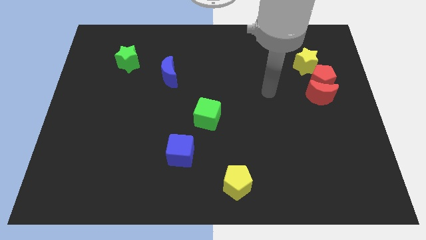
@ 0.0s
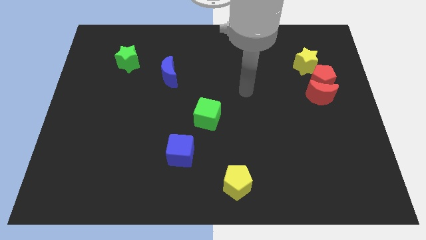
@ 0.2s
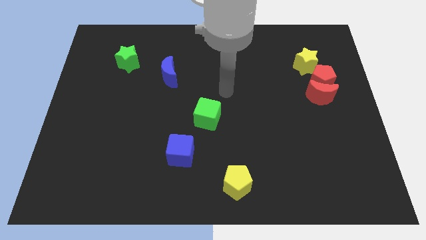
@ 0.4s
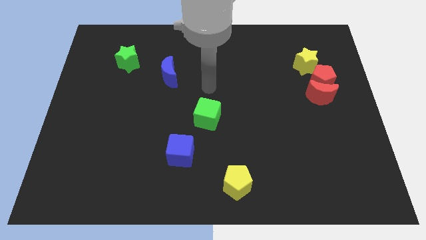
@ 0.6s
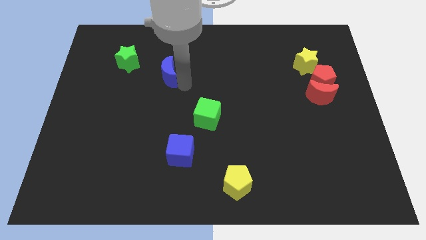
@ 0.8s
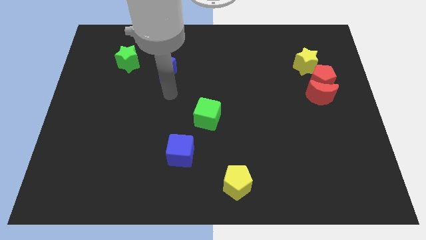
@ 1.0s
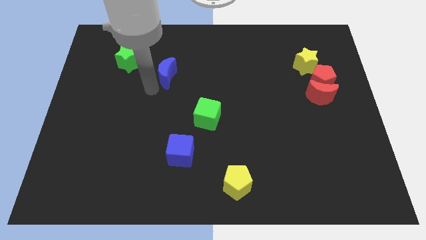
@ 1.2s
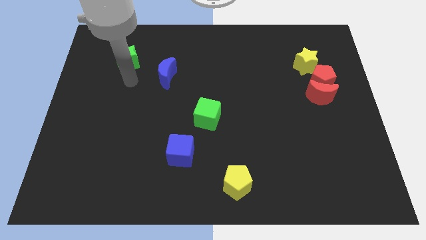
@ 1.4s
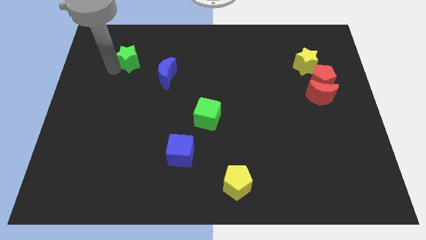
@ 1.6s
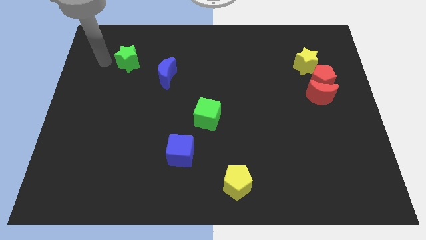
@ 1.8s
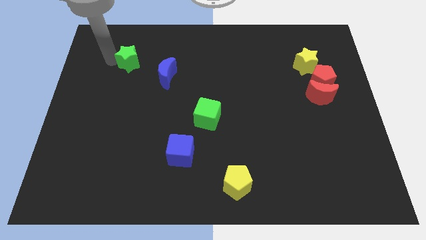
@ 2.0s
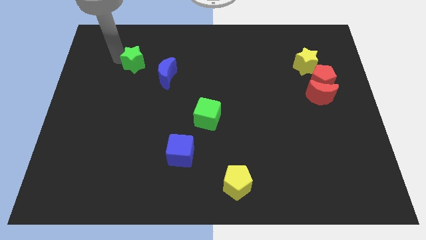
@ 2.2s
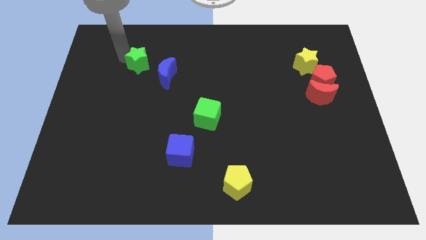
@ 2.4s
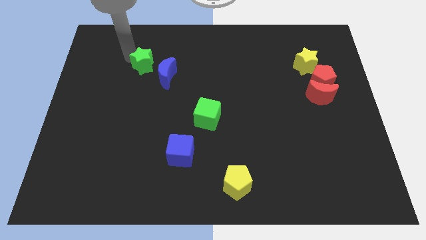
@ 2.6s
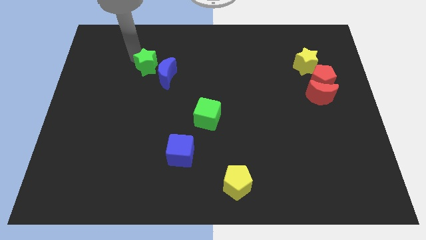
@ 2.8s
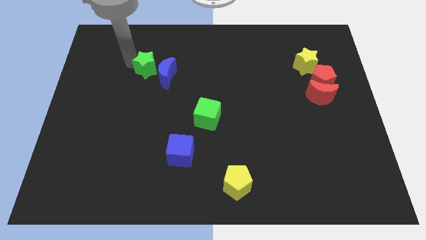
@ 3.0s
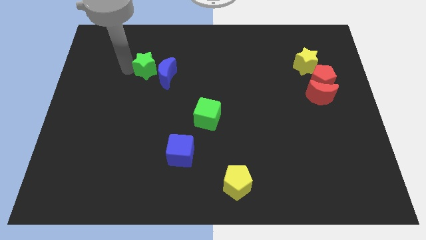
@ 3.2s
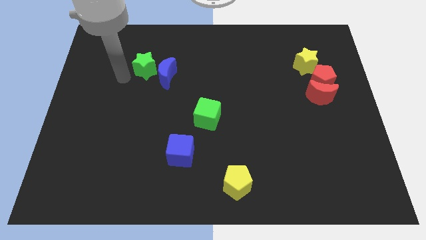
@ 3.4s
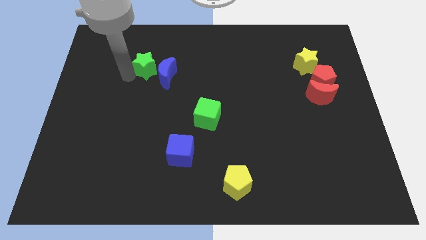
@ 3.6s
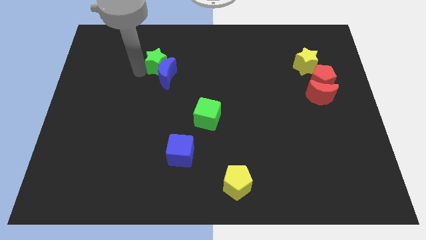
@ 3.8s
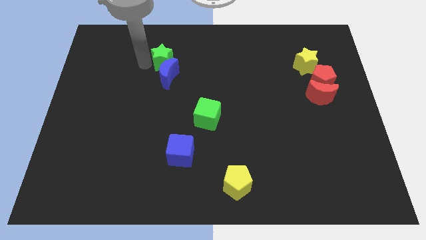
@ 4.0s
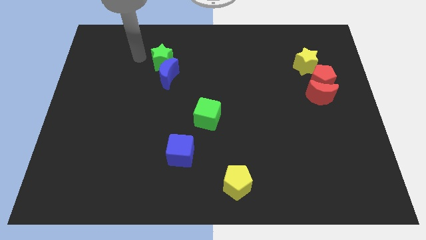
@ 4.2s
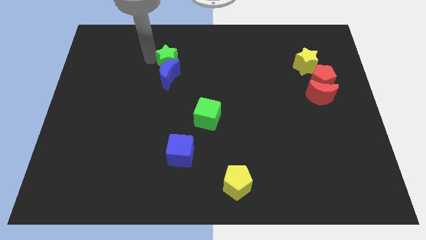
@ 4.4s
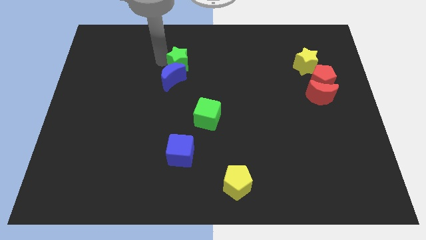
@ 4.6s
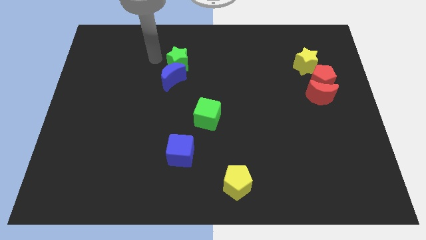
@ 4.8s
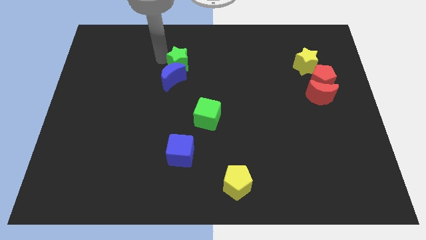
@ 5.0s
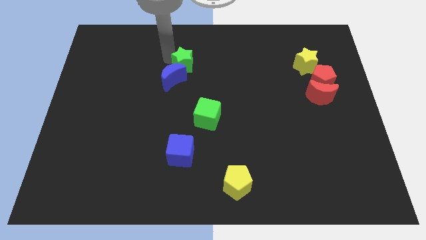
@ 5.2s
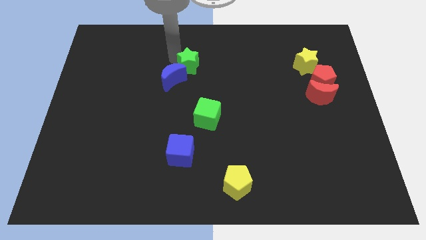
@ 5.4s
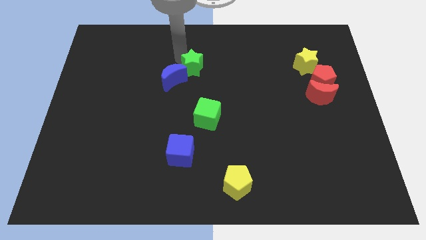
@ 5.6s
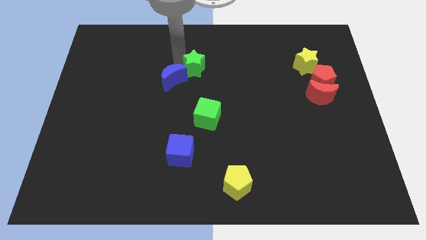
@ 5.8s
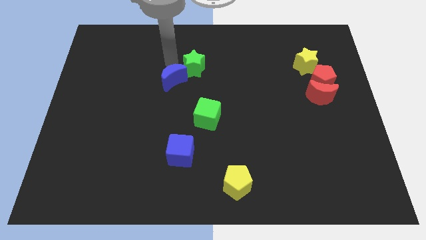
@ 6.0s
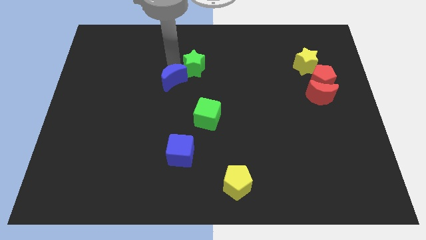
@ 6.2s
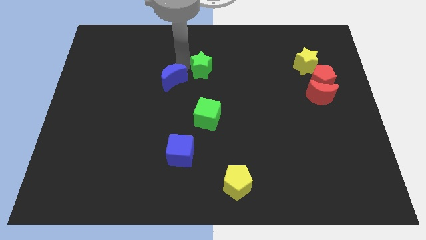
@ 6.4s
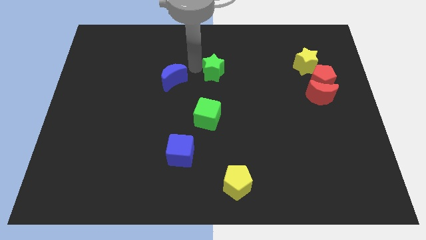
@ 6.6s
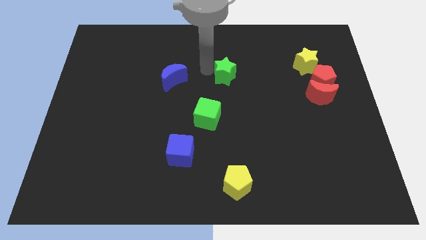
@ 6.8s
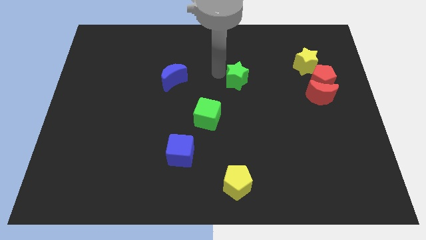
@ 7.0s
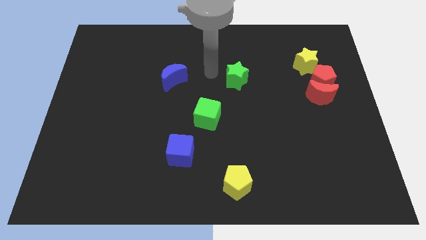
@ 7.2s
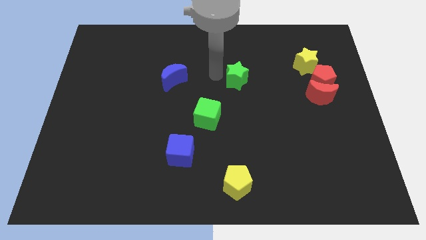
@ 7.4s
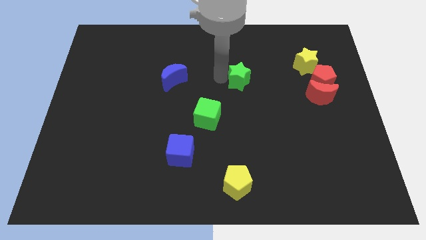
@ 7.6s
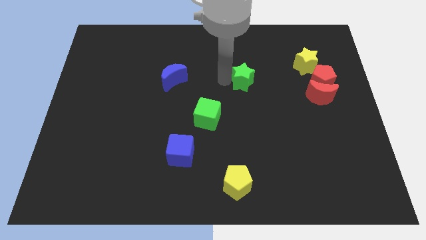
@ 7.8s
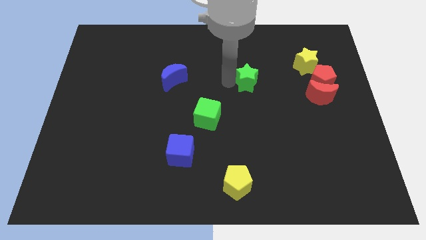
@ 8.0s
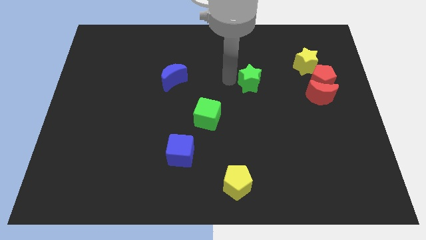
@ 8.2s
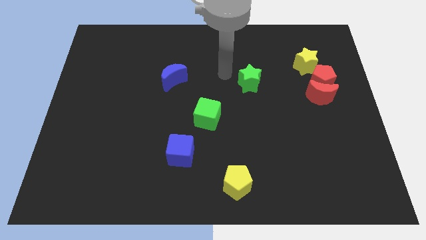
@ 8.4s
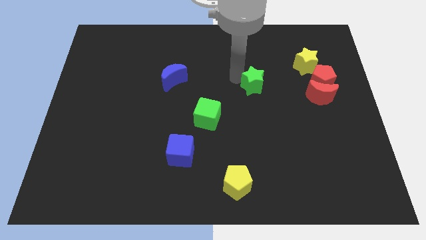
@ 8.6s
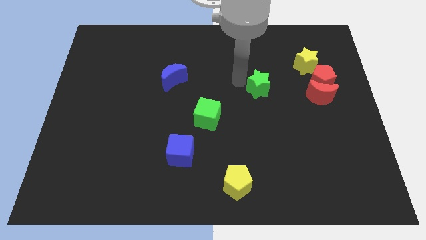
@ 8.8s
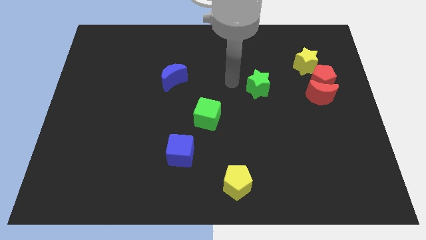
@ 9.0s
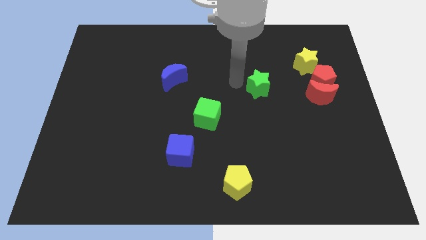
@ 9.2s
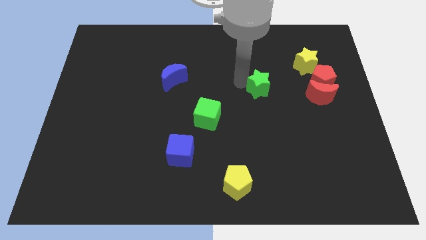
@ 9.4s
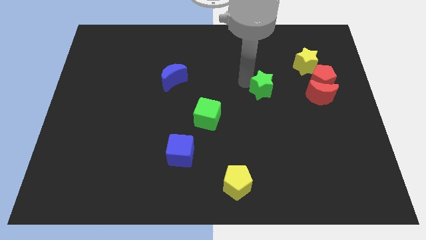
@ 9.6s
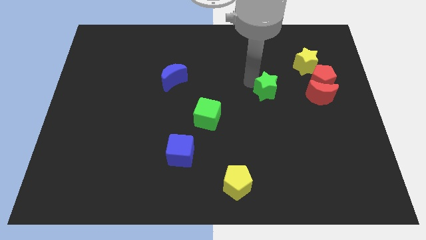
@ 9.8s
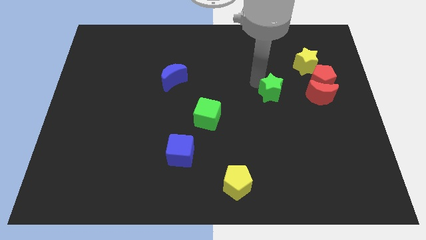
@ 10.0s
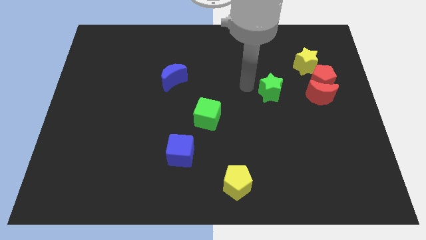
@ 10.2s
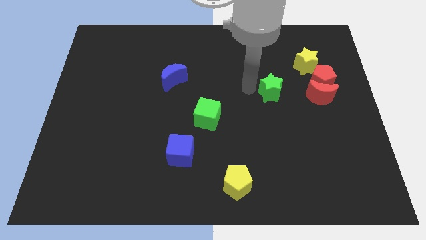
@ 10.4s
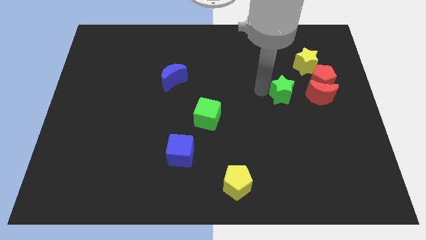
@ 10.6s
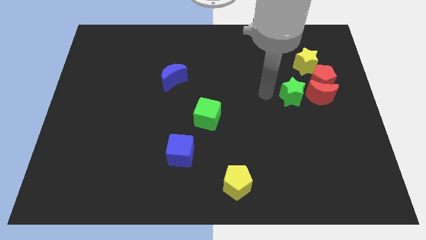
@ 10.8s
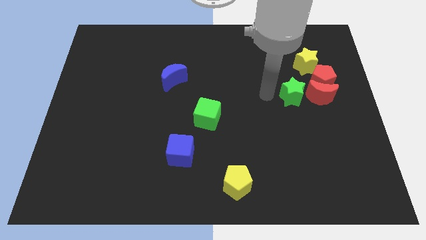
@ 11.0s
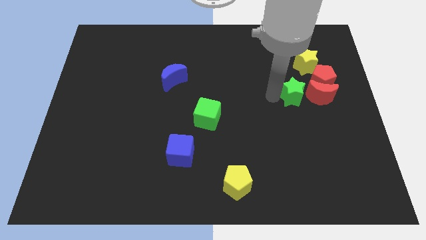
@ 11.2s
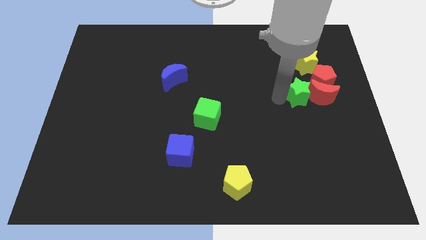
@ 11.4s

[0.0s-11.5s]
put the green star towards the red moon

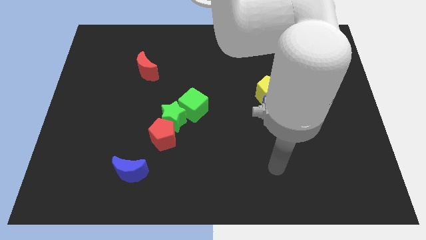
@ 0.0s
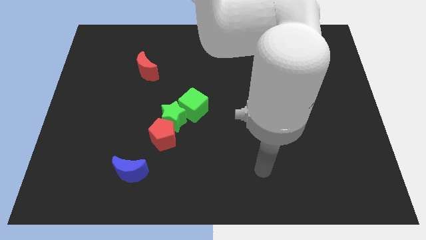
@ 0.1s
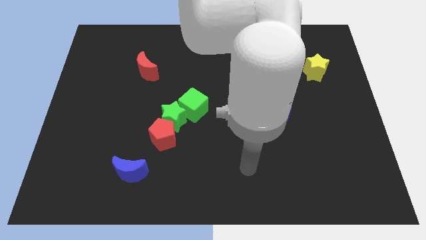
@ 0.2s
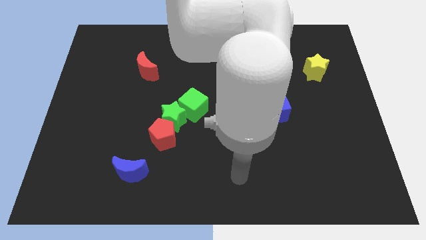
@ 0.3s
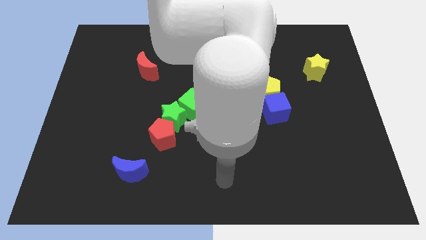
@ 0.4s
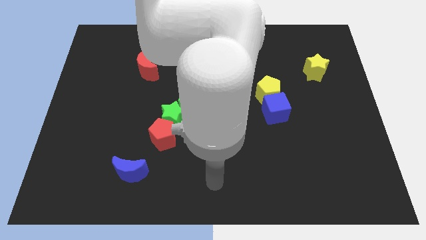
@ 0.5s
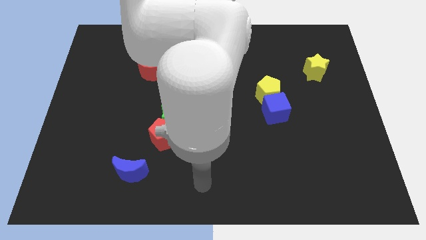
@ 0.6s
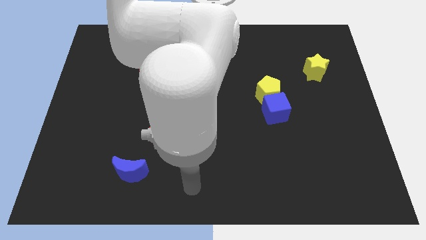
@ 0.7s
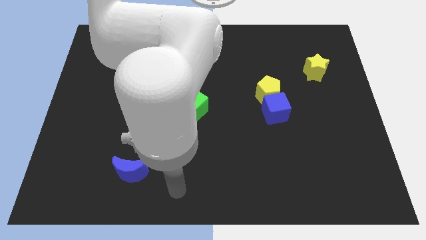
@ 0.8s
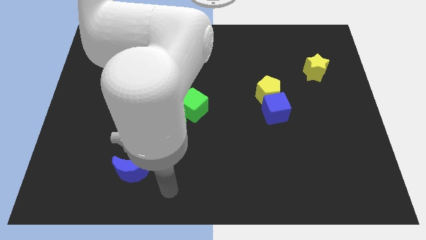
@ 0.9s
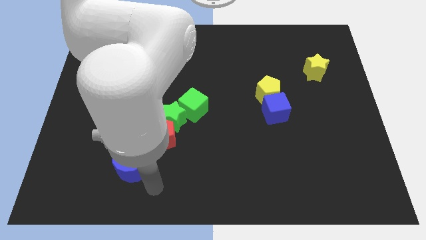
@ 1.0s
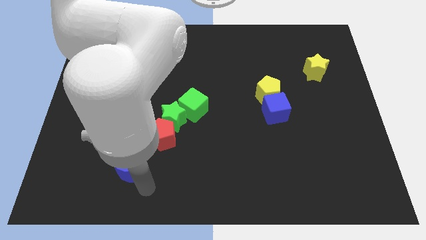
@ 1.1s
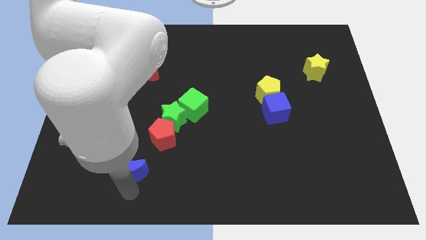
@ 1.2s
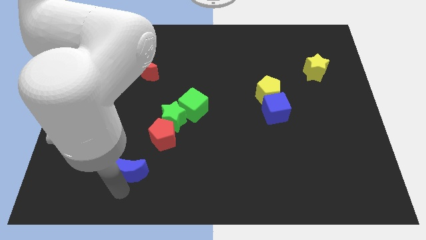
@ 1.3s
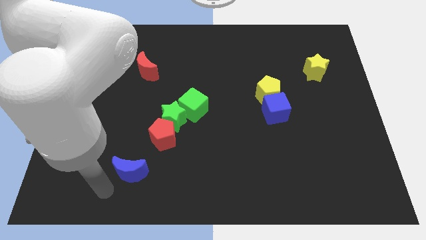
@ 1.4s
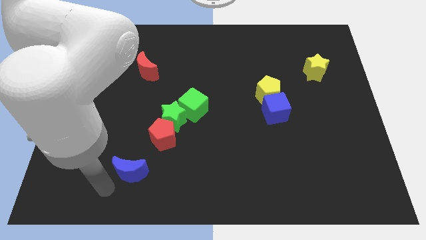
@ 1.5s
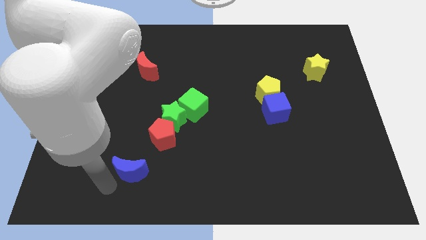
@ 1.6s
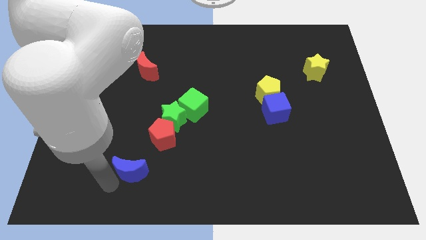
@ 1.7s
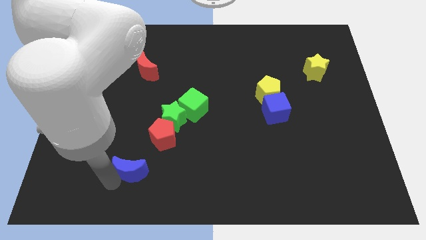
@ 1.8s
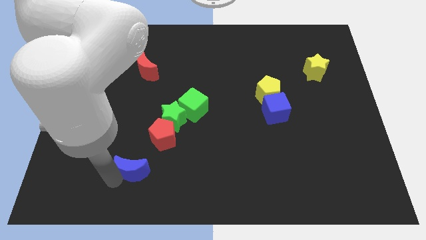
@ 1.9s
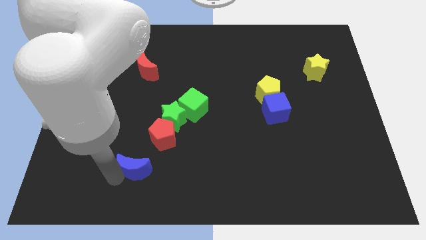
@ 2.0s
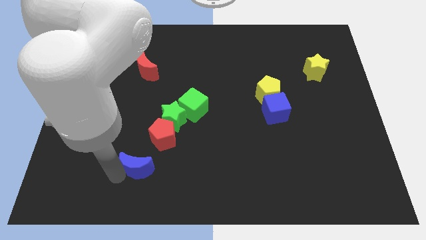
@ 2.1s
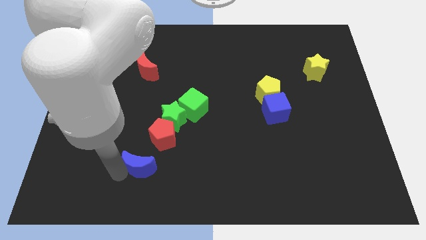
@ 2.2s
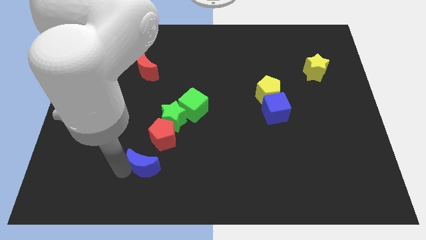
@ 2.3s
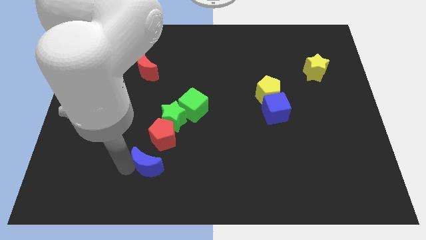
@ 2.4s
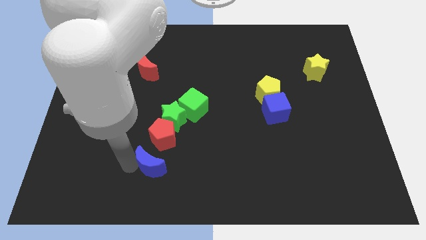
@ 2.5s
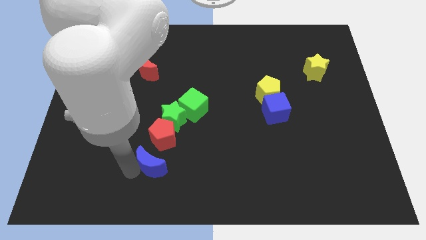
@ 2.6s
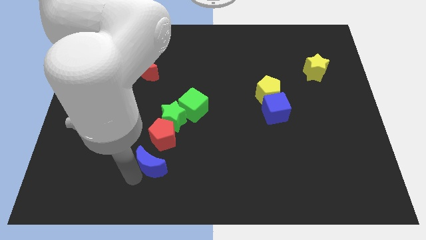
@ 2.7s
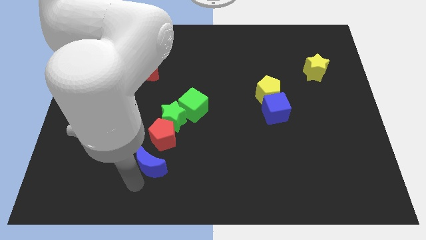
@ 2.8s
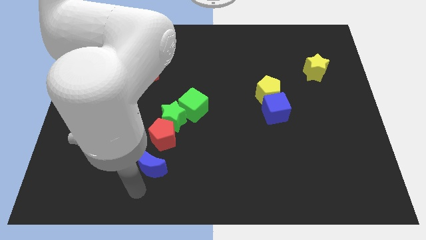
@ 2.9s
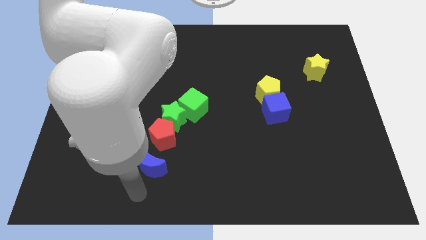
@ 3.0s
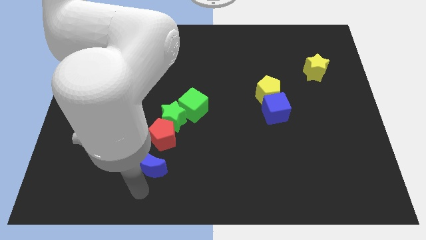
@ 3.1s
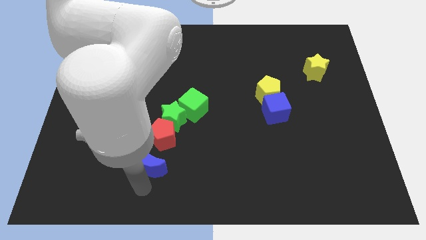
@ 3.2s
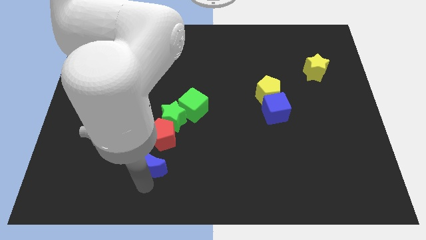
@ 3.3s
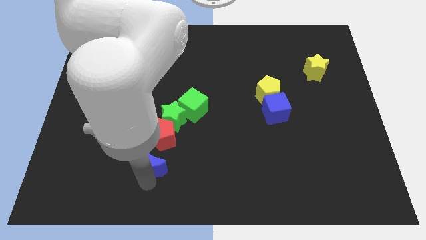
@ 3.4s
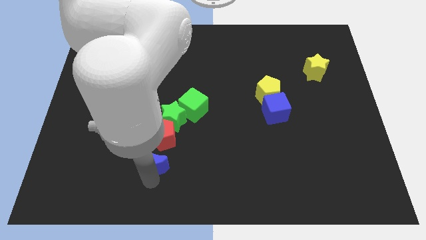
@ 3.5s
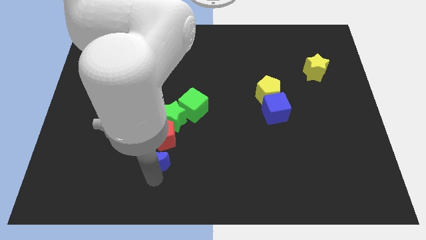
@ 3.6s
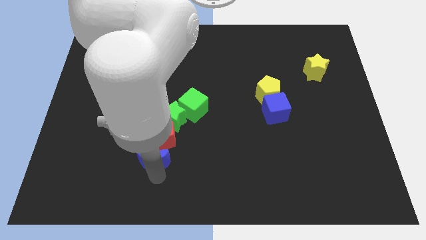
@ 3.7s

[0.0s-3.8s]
push the blue moon next to the red pentagon
